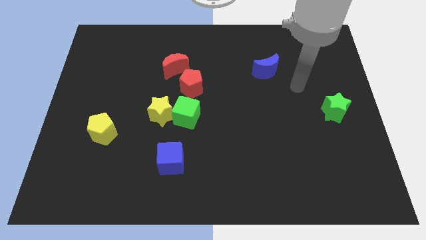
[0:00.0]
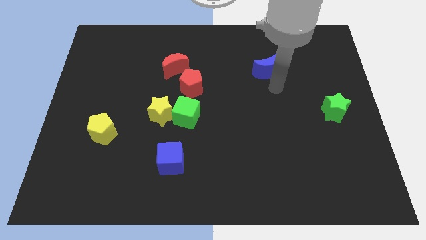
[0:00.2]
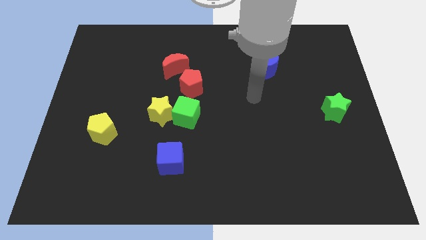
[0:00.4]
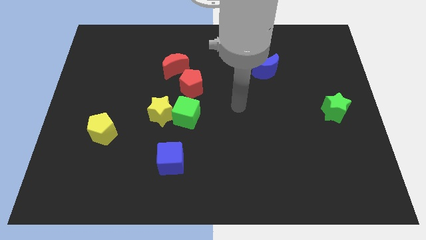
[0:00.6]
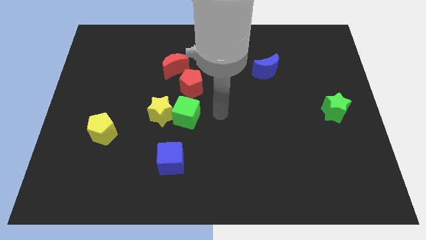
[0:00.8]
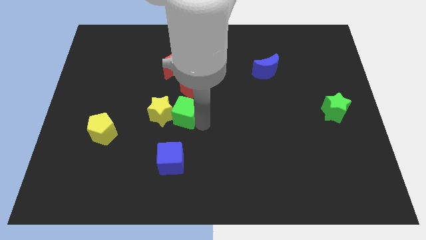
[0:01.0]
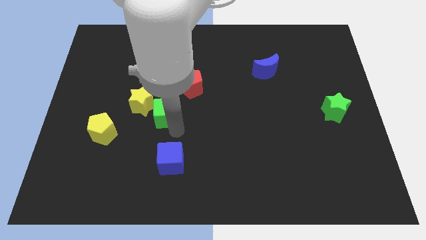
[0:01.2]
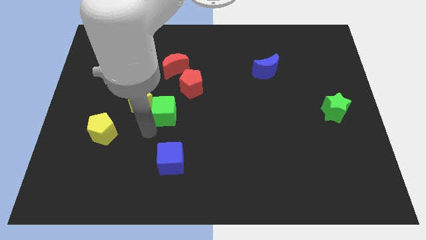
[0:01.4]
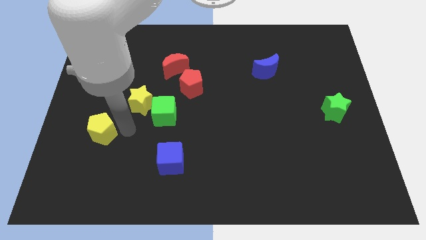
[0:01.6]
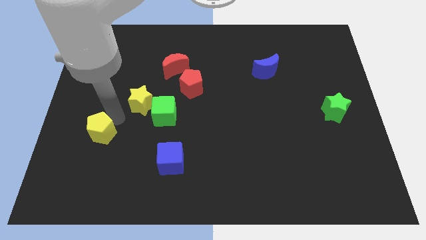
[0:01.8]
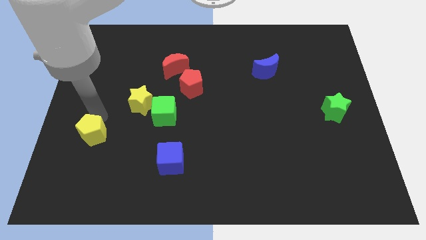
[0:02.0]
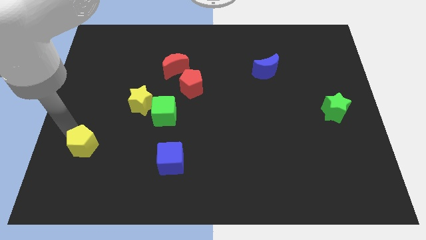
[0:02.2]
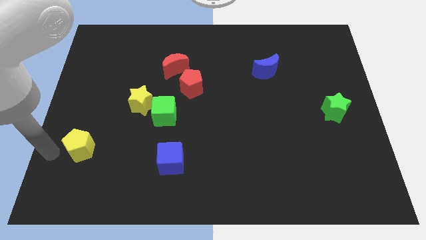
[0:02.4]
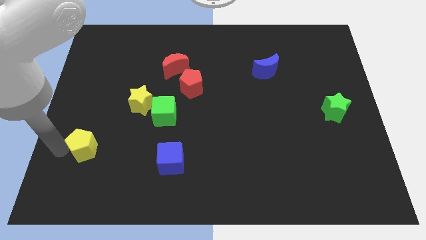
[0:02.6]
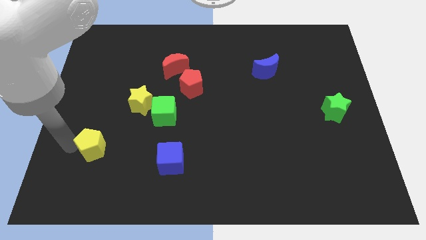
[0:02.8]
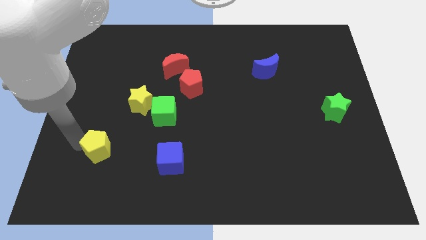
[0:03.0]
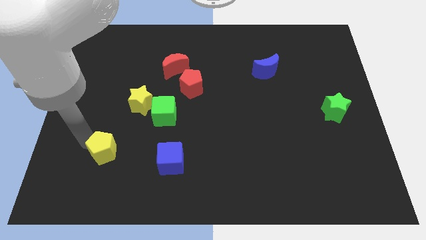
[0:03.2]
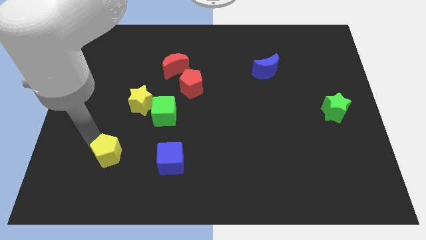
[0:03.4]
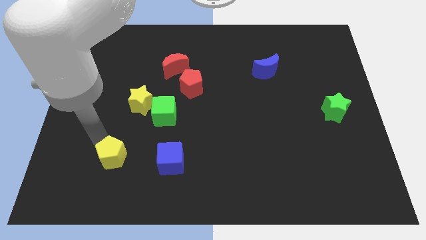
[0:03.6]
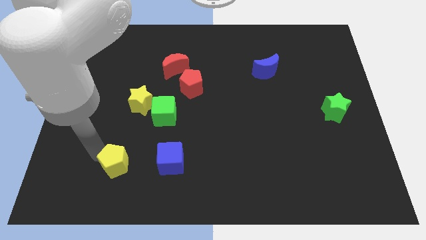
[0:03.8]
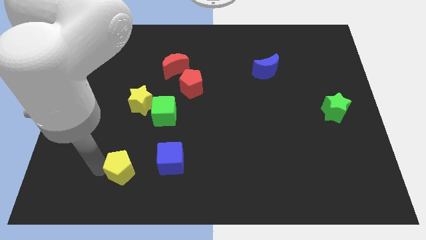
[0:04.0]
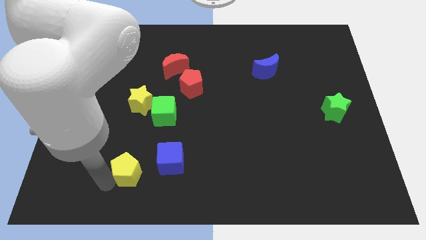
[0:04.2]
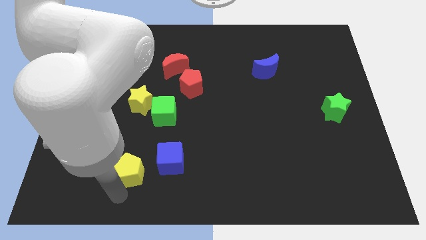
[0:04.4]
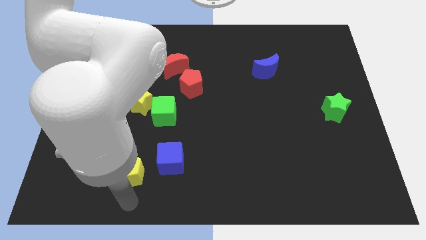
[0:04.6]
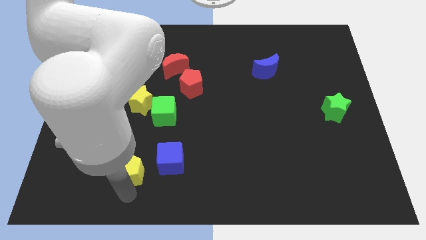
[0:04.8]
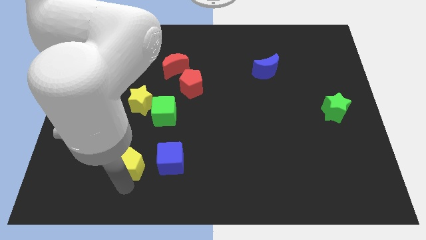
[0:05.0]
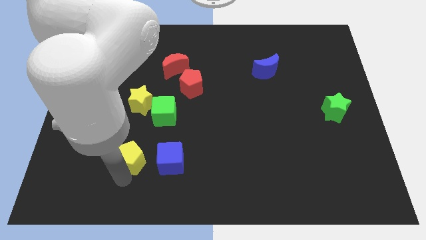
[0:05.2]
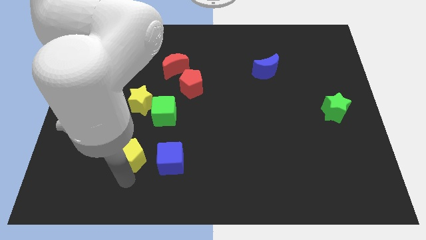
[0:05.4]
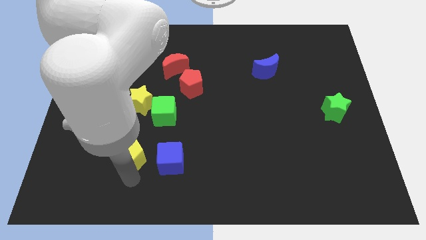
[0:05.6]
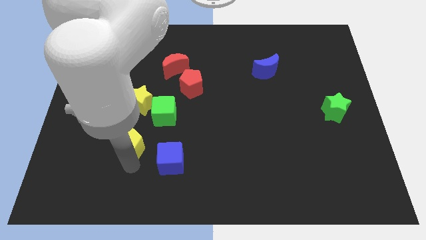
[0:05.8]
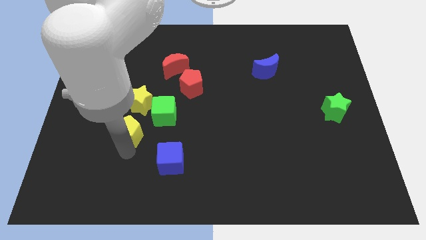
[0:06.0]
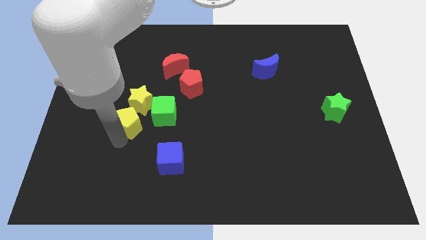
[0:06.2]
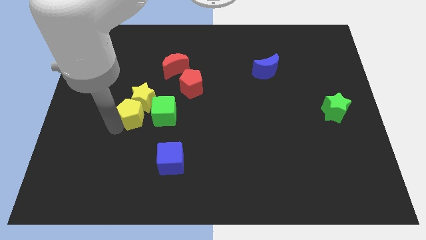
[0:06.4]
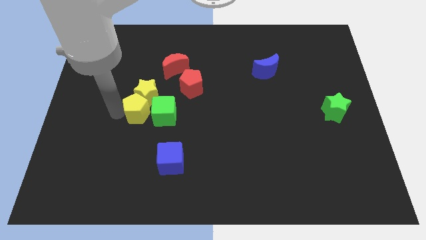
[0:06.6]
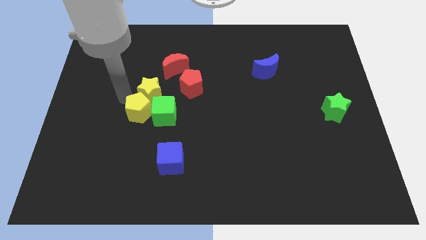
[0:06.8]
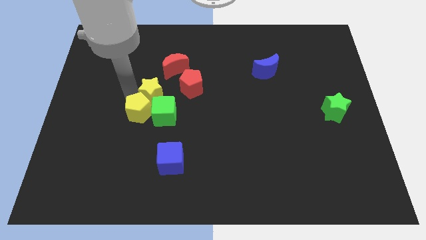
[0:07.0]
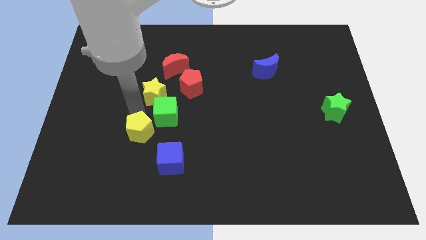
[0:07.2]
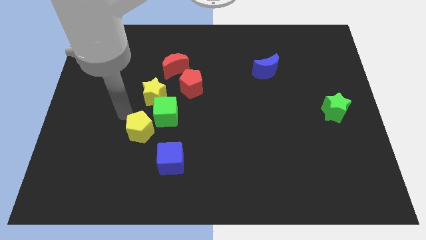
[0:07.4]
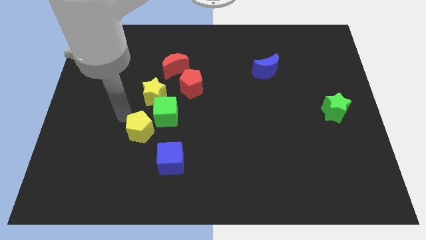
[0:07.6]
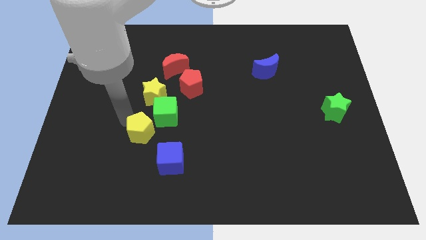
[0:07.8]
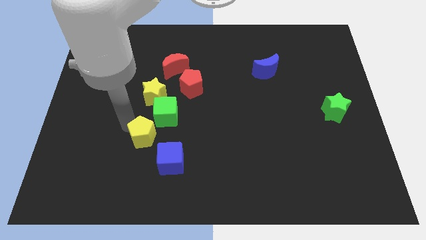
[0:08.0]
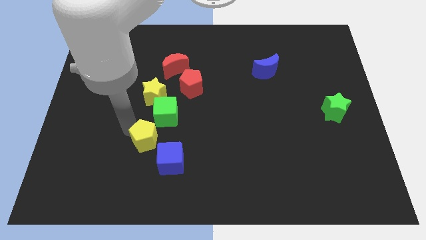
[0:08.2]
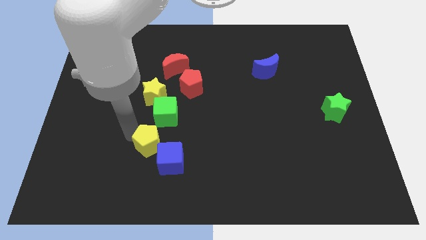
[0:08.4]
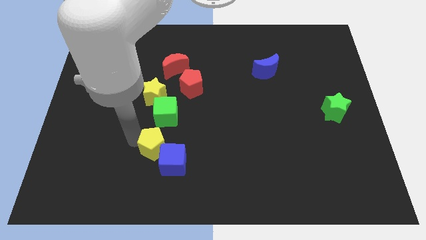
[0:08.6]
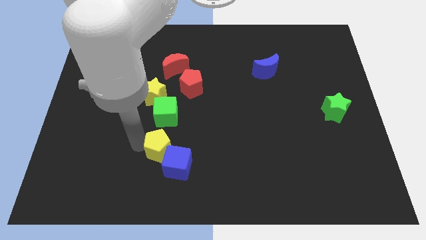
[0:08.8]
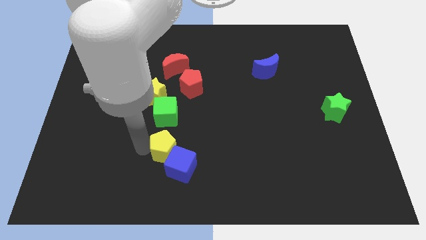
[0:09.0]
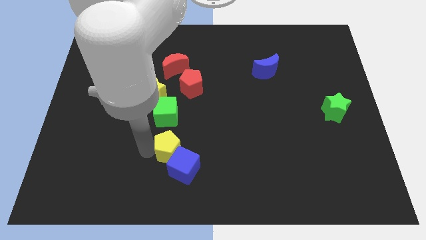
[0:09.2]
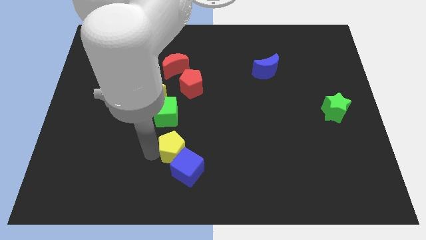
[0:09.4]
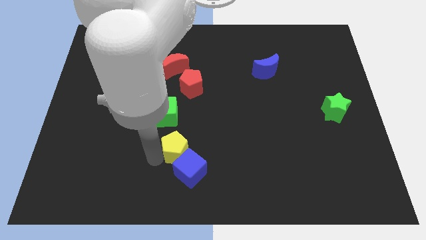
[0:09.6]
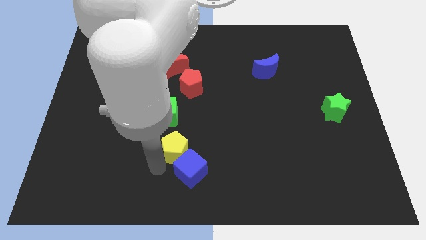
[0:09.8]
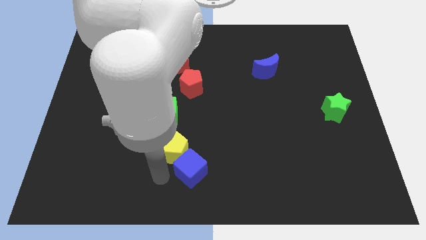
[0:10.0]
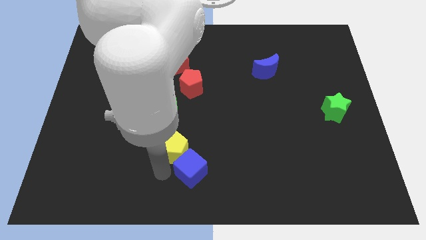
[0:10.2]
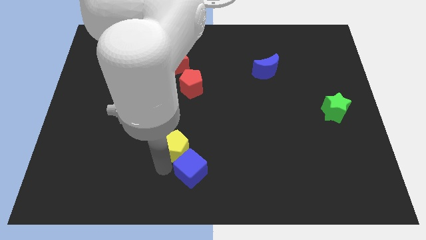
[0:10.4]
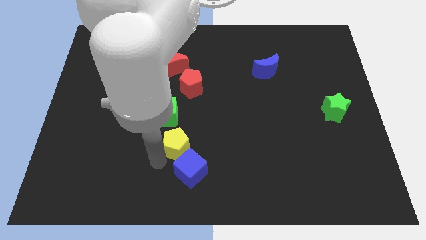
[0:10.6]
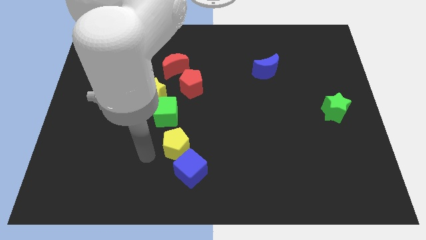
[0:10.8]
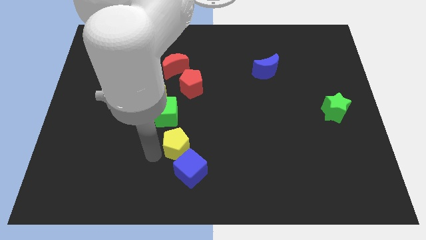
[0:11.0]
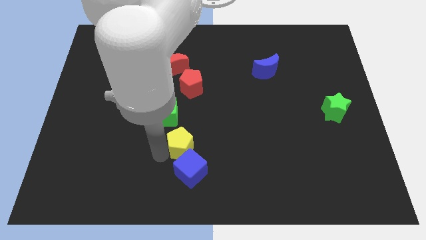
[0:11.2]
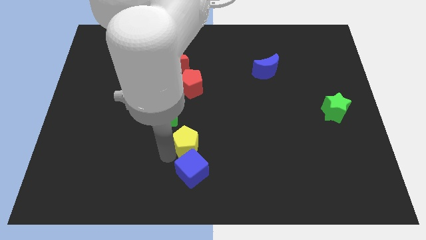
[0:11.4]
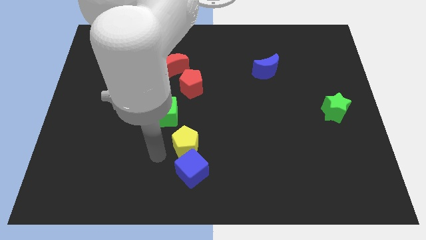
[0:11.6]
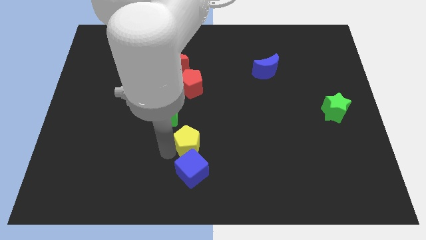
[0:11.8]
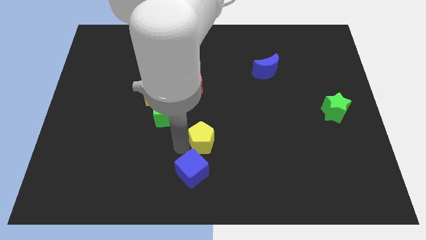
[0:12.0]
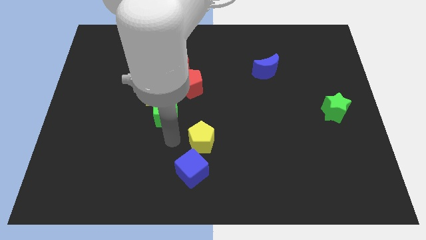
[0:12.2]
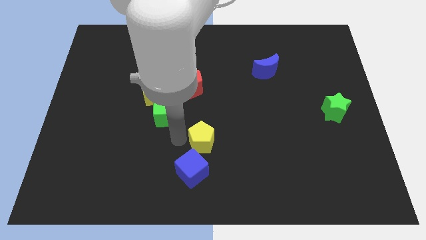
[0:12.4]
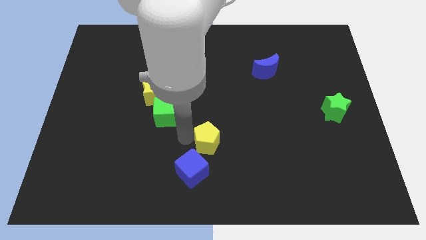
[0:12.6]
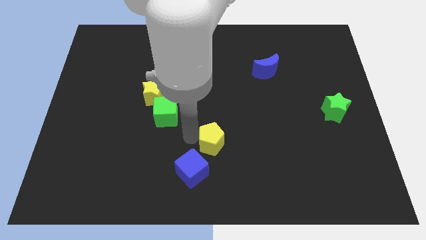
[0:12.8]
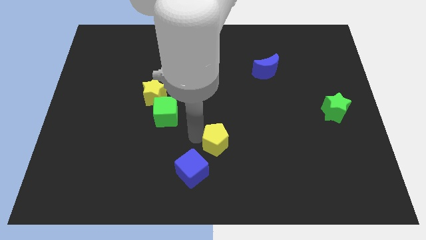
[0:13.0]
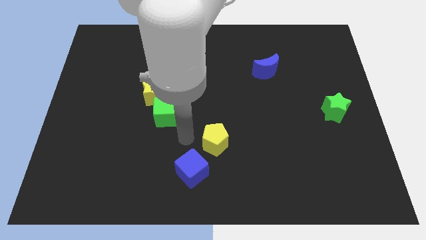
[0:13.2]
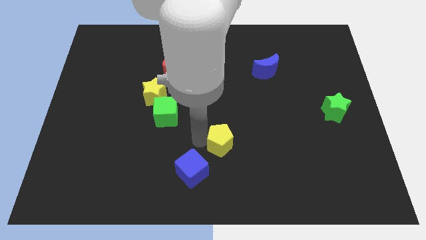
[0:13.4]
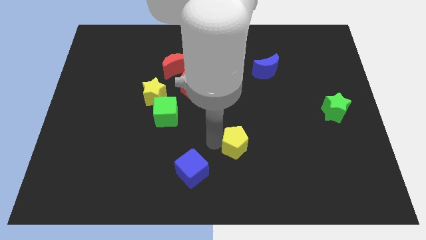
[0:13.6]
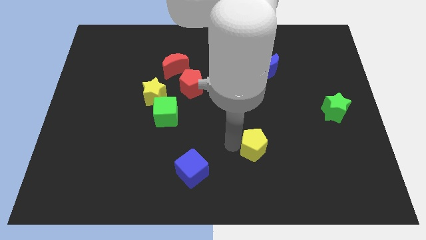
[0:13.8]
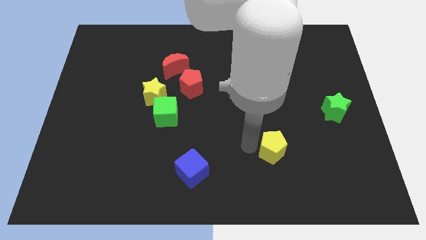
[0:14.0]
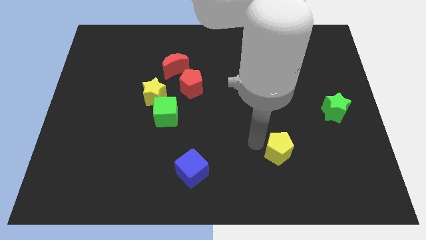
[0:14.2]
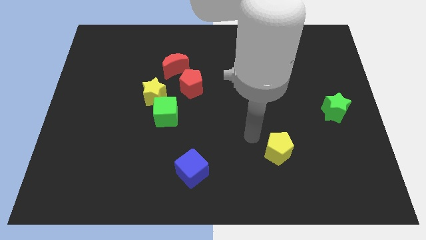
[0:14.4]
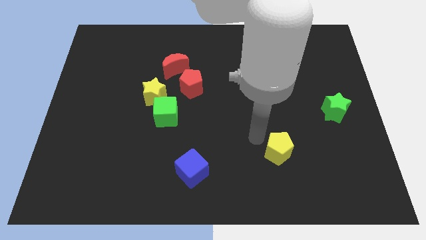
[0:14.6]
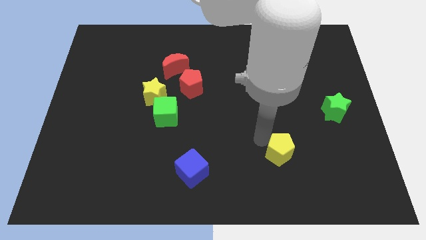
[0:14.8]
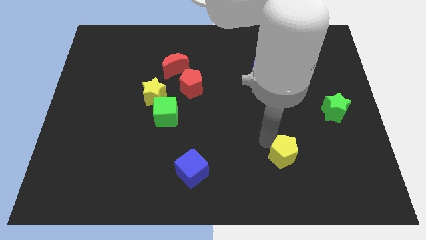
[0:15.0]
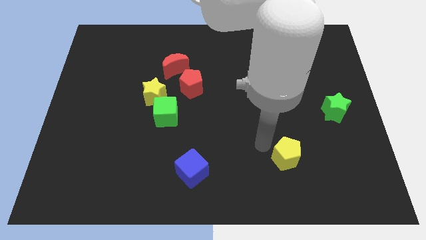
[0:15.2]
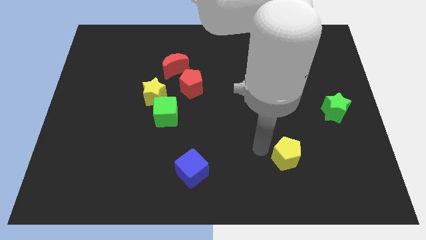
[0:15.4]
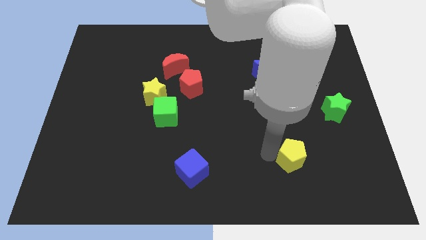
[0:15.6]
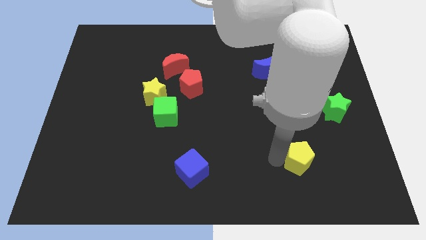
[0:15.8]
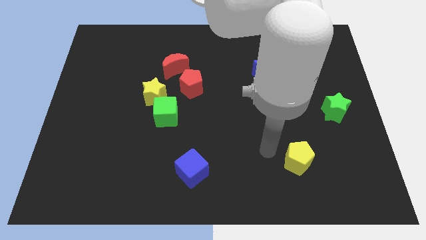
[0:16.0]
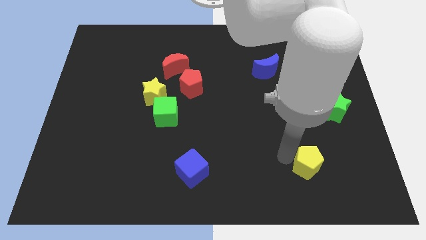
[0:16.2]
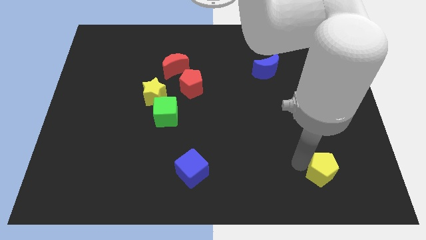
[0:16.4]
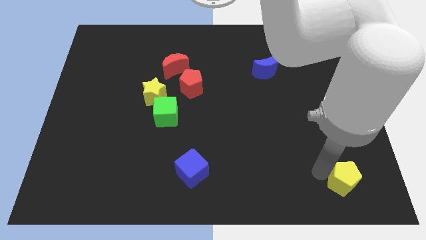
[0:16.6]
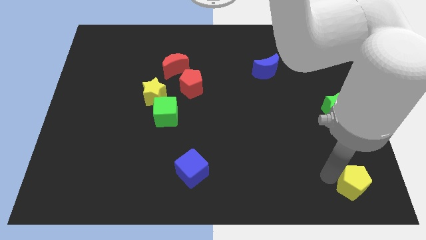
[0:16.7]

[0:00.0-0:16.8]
move the yellow pentagon to the bottom right of the board
